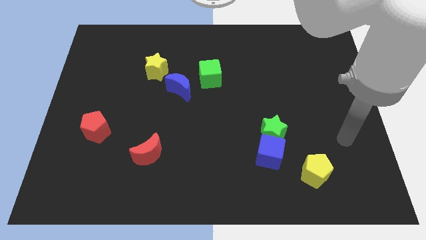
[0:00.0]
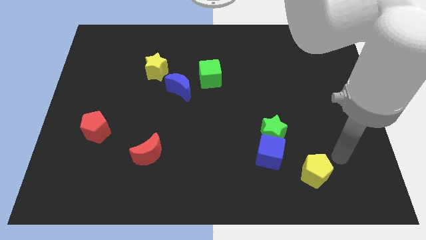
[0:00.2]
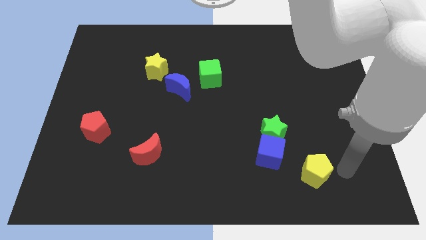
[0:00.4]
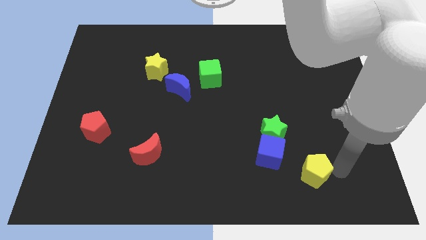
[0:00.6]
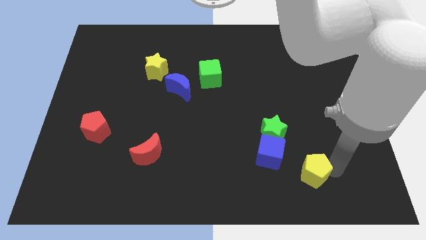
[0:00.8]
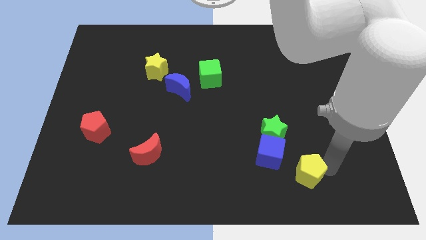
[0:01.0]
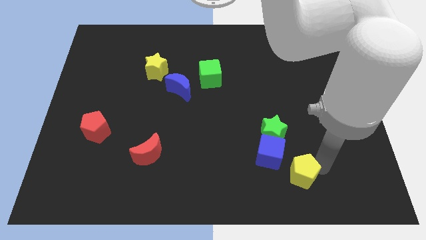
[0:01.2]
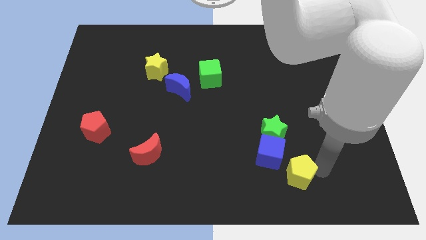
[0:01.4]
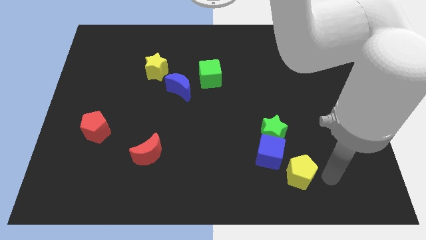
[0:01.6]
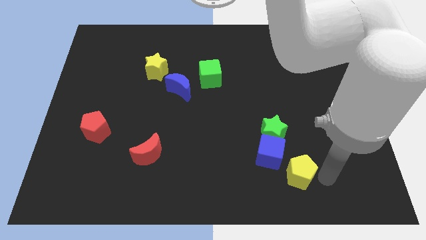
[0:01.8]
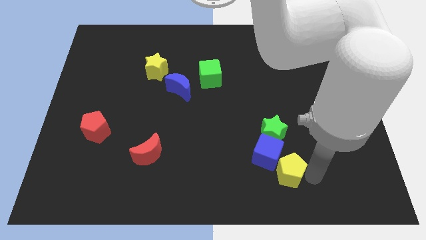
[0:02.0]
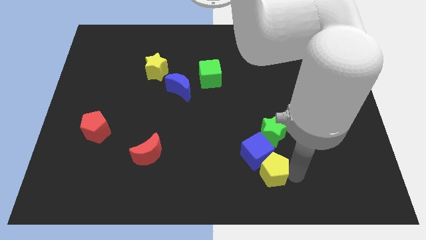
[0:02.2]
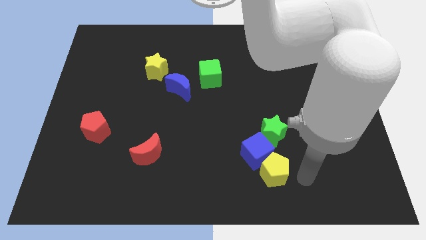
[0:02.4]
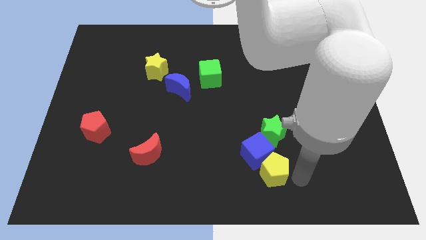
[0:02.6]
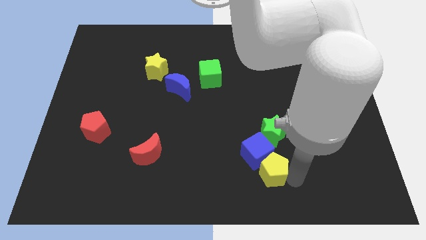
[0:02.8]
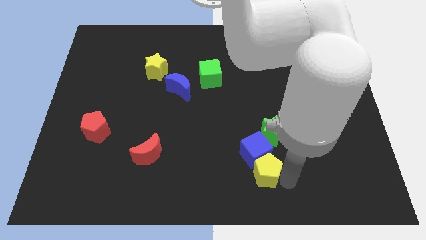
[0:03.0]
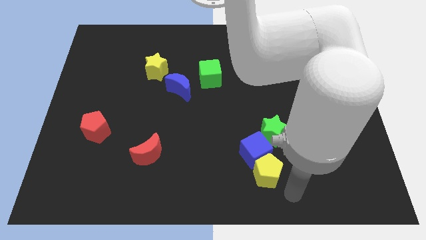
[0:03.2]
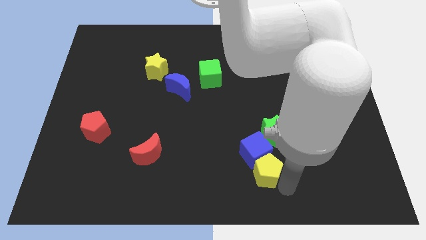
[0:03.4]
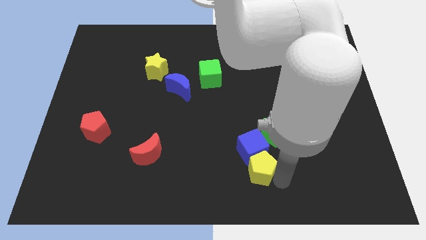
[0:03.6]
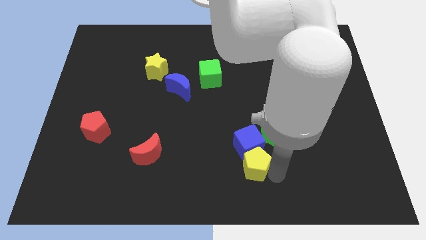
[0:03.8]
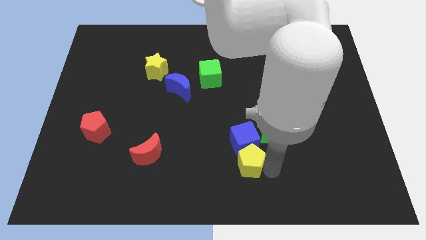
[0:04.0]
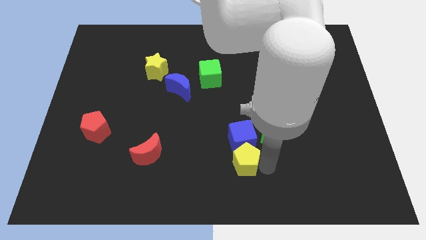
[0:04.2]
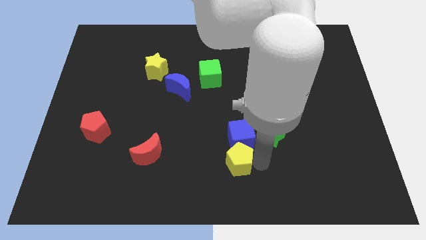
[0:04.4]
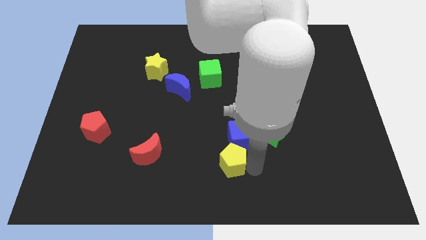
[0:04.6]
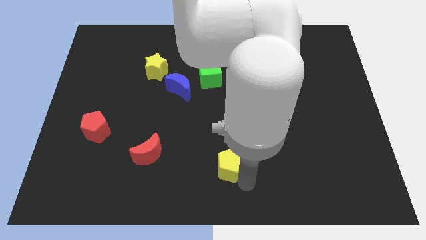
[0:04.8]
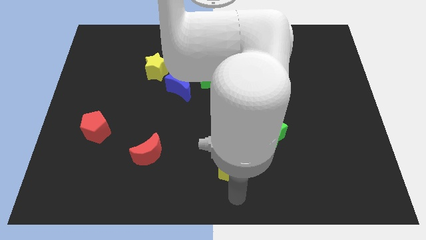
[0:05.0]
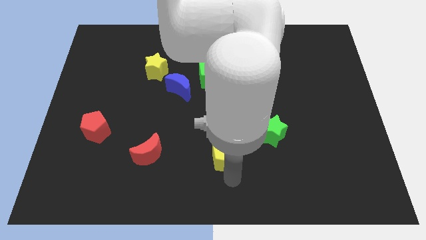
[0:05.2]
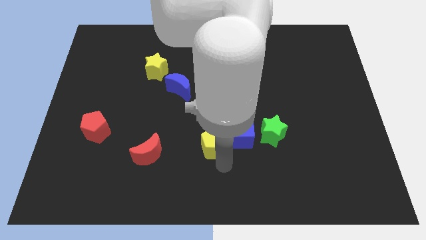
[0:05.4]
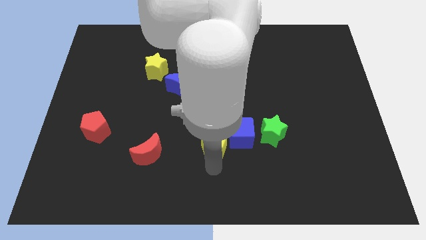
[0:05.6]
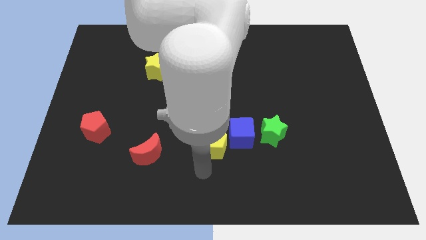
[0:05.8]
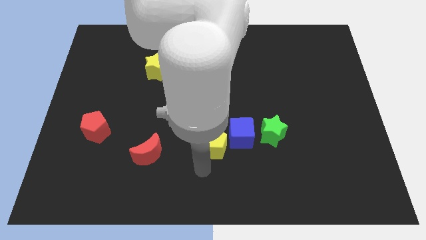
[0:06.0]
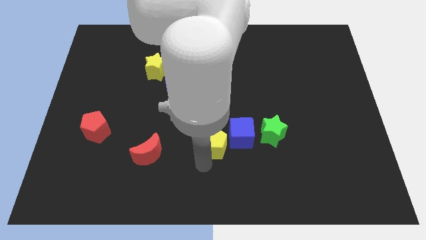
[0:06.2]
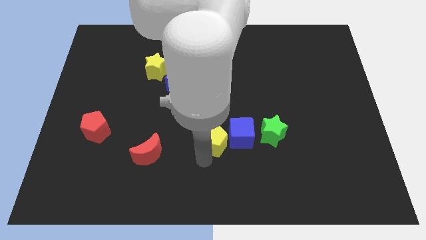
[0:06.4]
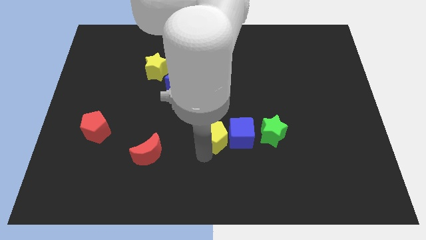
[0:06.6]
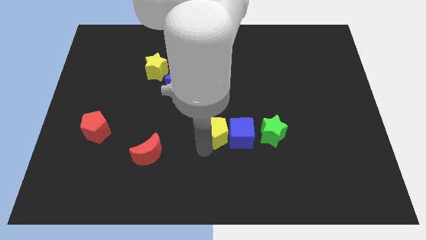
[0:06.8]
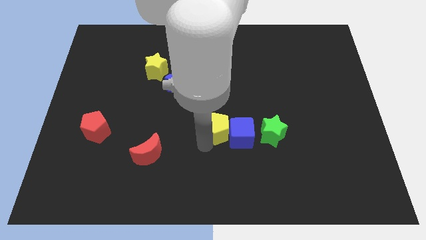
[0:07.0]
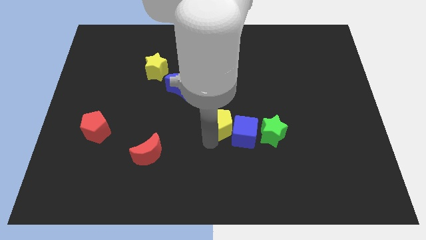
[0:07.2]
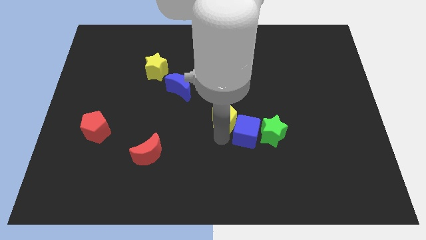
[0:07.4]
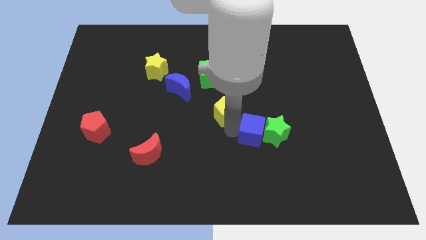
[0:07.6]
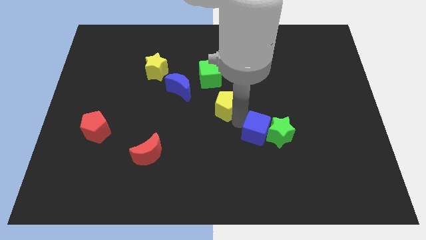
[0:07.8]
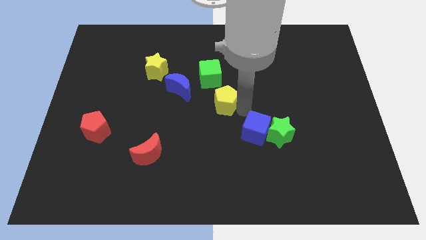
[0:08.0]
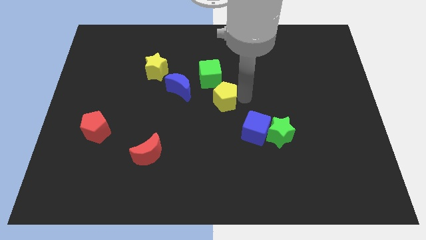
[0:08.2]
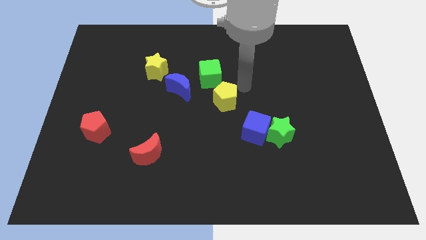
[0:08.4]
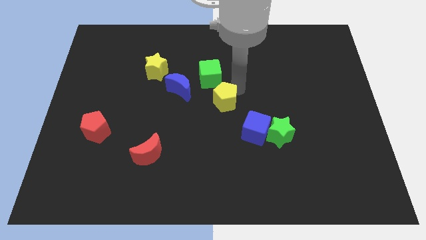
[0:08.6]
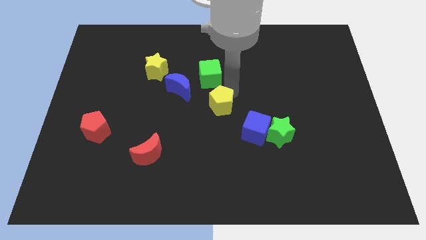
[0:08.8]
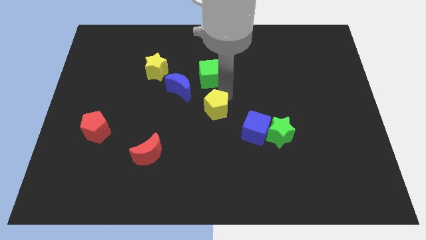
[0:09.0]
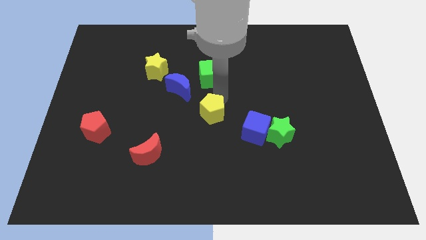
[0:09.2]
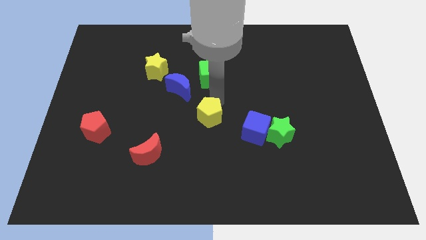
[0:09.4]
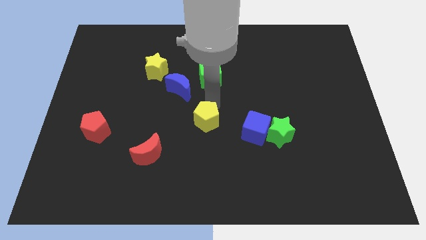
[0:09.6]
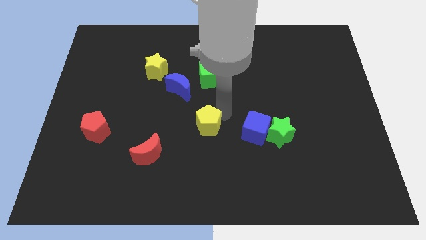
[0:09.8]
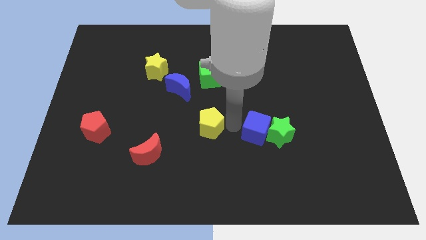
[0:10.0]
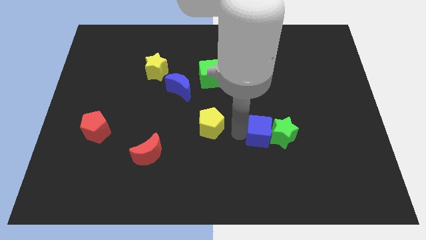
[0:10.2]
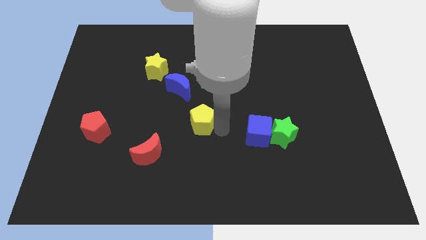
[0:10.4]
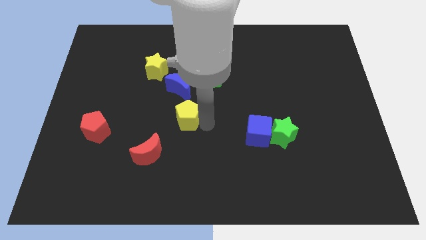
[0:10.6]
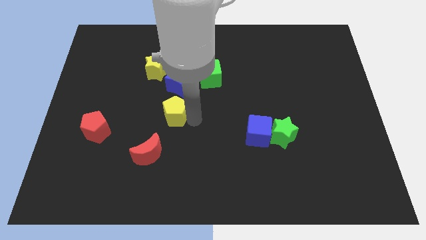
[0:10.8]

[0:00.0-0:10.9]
move the yellow pentagon to the top of the red moon

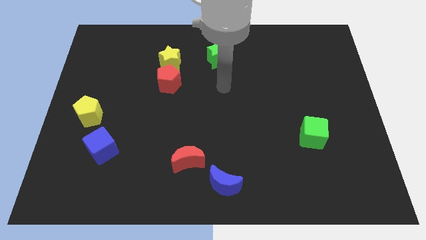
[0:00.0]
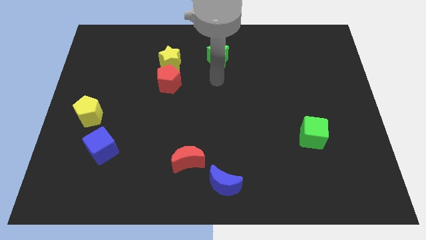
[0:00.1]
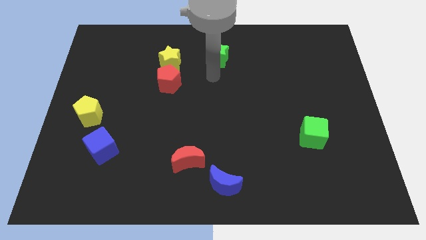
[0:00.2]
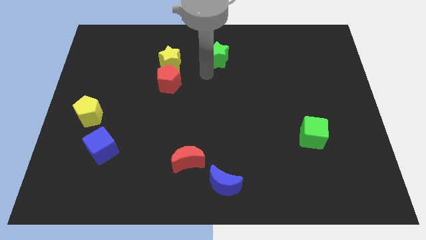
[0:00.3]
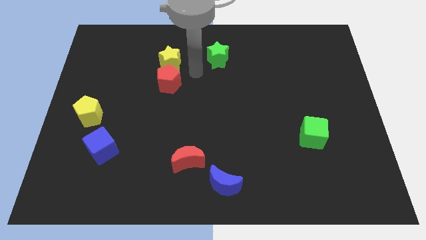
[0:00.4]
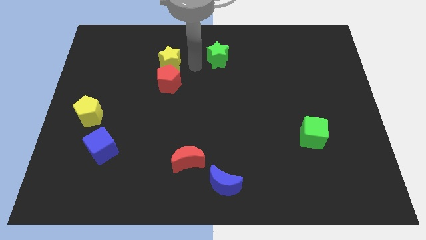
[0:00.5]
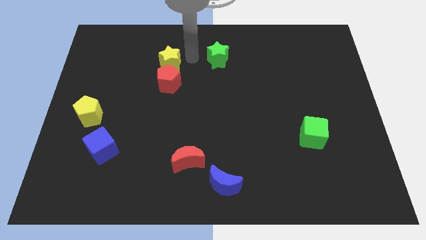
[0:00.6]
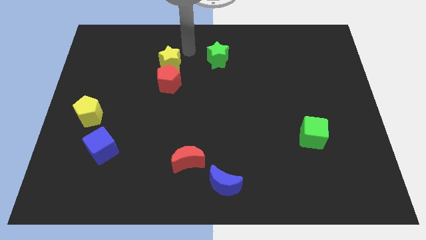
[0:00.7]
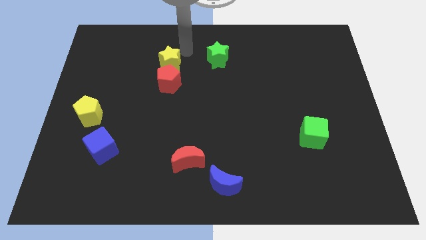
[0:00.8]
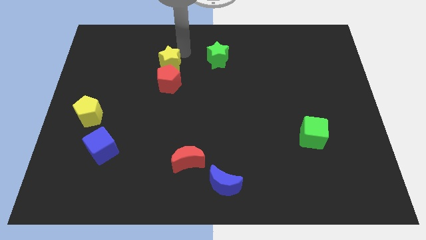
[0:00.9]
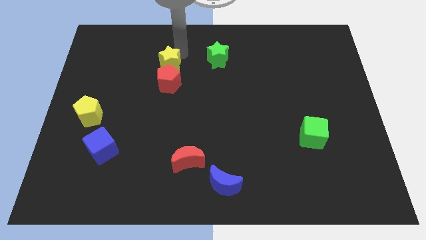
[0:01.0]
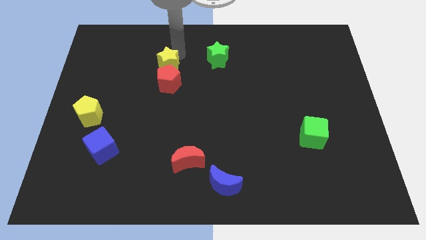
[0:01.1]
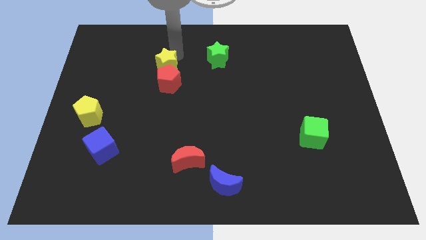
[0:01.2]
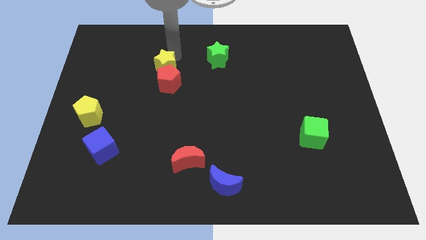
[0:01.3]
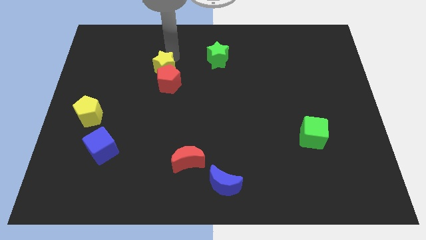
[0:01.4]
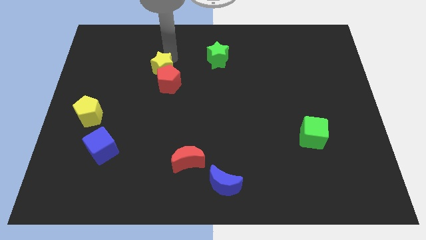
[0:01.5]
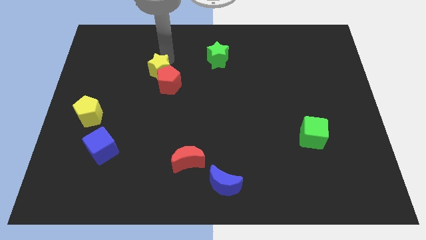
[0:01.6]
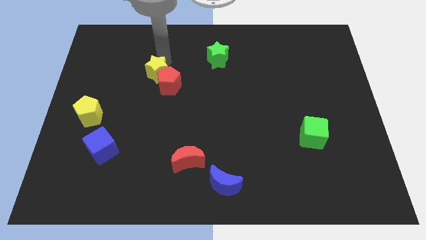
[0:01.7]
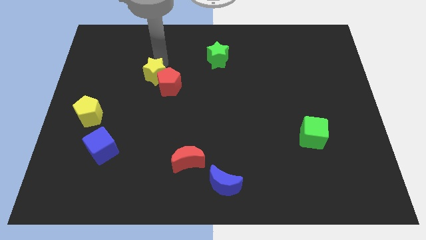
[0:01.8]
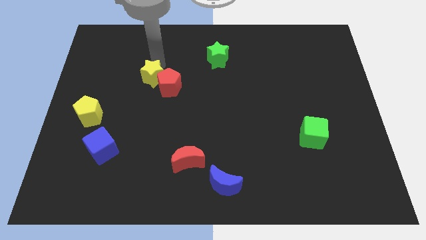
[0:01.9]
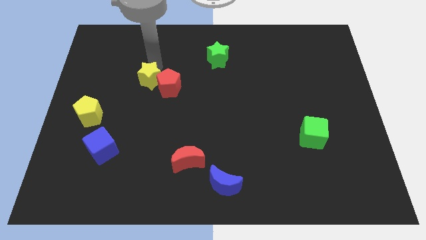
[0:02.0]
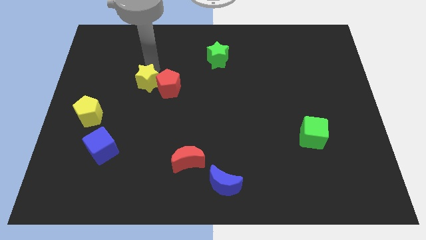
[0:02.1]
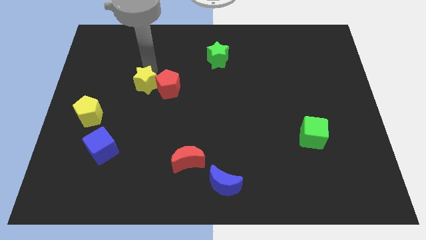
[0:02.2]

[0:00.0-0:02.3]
push the yellow star to the bottom left of the red pentagon
